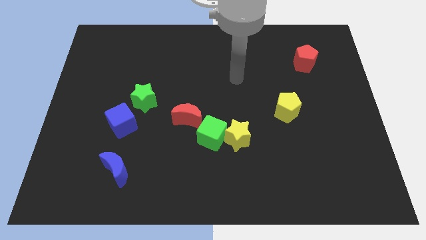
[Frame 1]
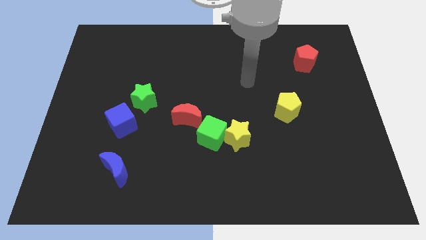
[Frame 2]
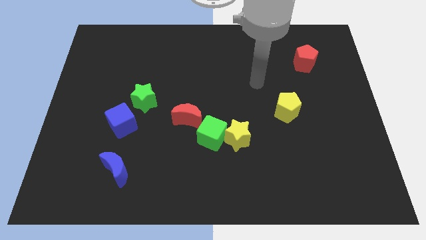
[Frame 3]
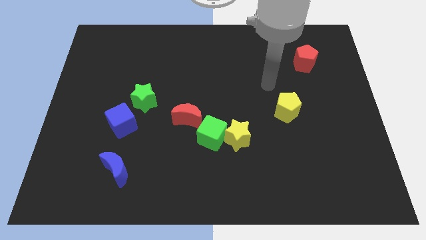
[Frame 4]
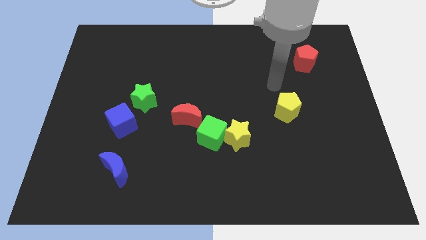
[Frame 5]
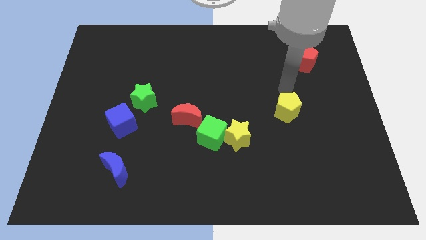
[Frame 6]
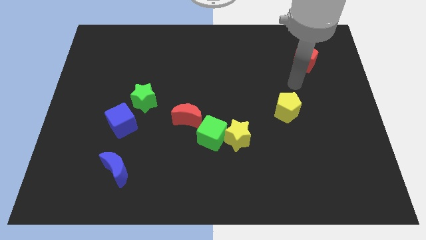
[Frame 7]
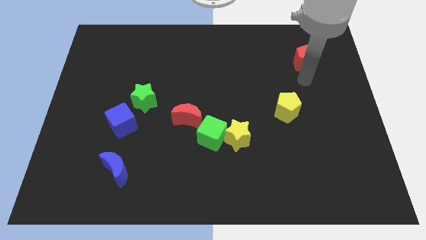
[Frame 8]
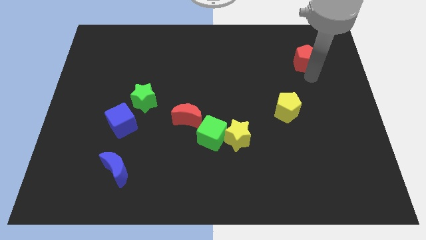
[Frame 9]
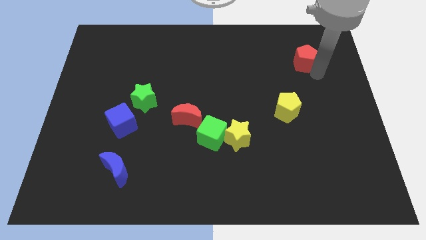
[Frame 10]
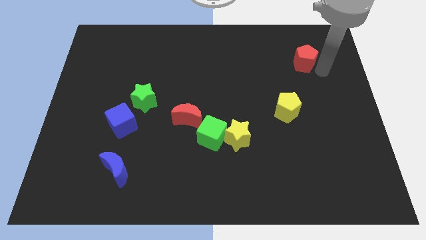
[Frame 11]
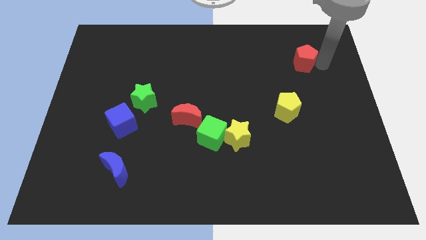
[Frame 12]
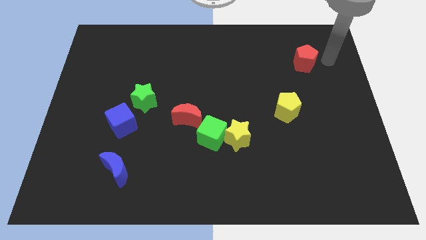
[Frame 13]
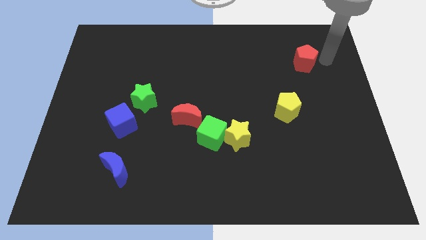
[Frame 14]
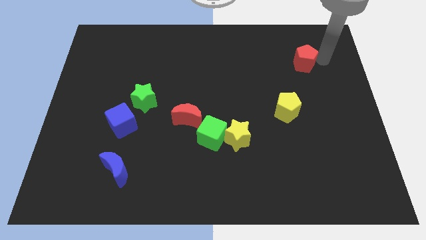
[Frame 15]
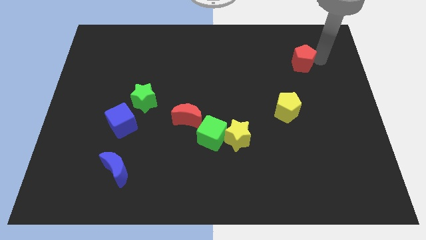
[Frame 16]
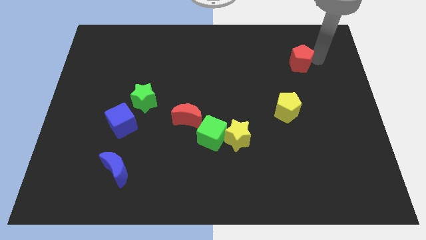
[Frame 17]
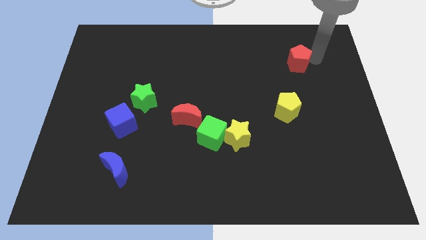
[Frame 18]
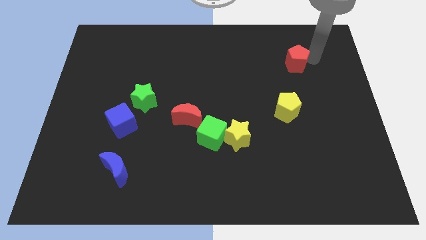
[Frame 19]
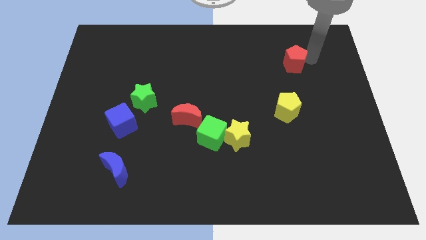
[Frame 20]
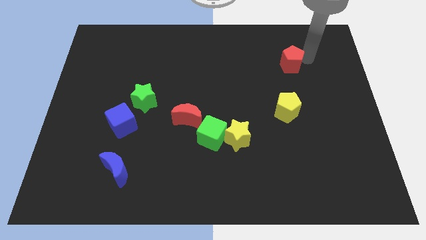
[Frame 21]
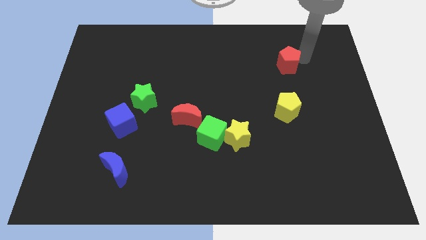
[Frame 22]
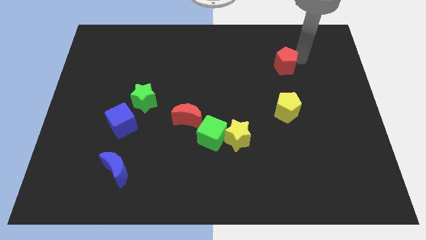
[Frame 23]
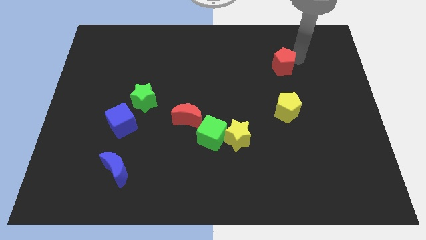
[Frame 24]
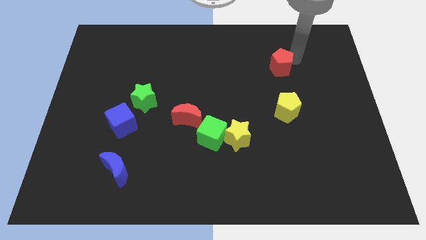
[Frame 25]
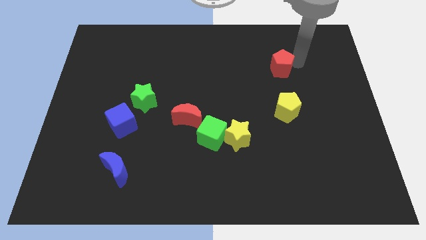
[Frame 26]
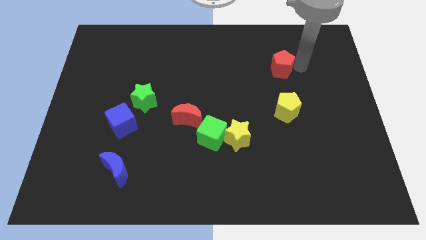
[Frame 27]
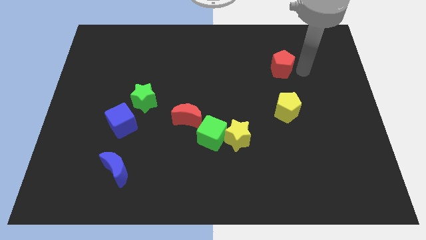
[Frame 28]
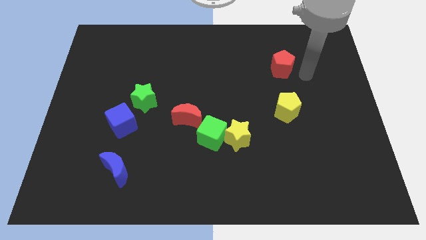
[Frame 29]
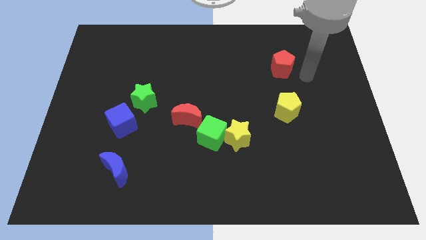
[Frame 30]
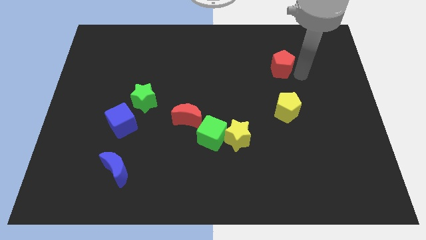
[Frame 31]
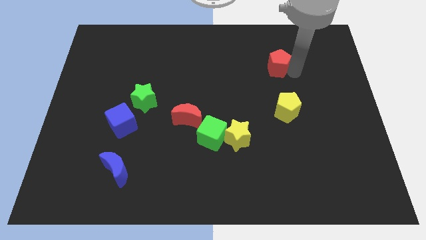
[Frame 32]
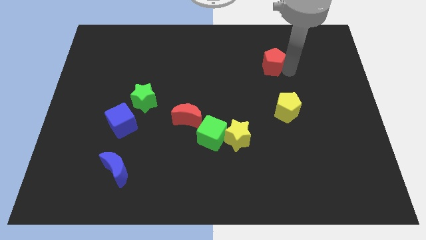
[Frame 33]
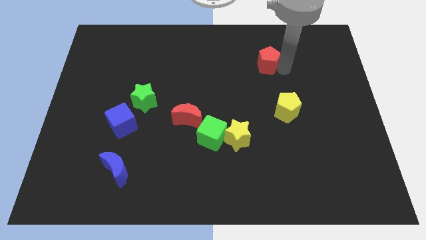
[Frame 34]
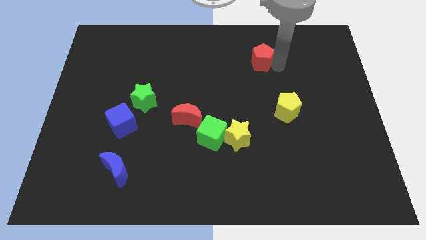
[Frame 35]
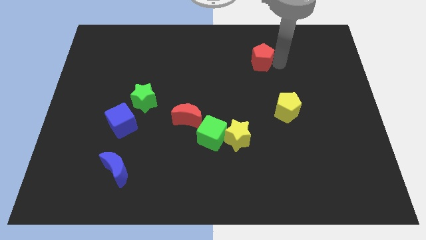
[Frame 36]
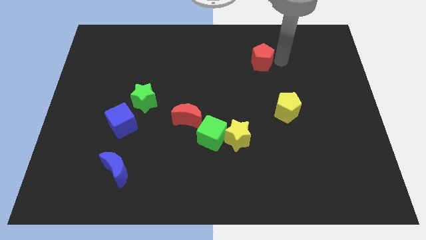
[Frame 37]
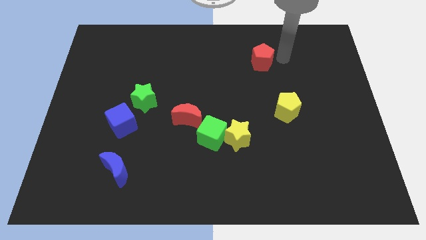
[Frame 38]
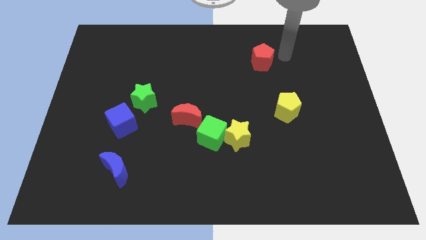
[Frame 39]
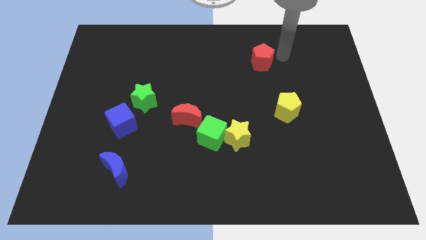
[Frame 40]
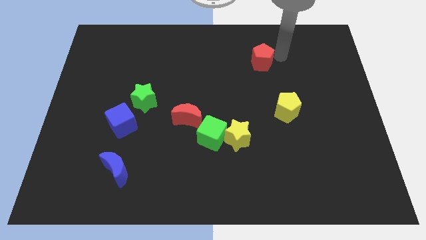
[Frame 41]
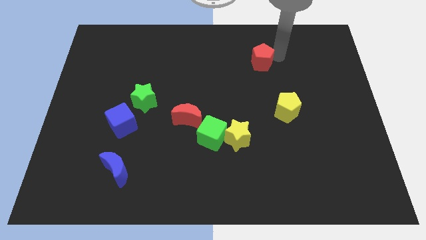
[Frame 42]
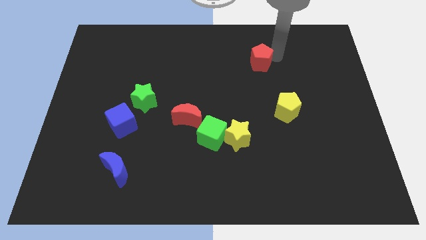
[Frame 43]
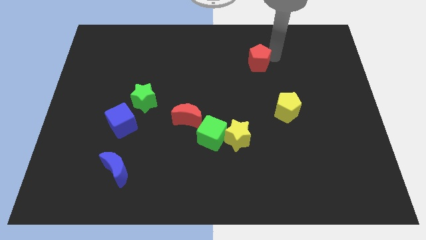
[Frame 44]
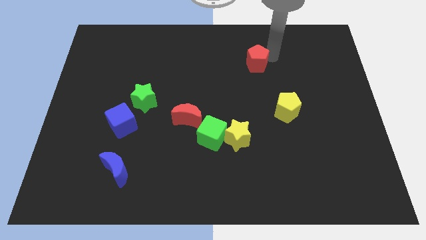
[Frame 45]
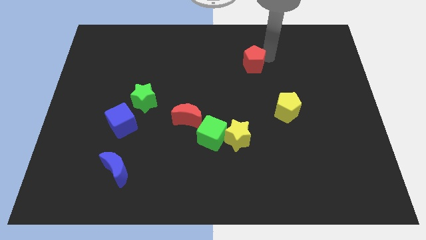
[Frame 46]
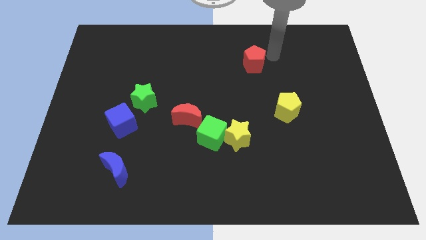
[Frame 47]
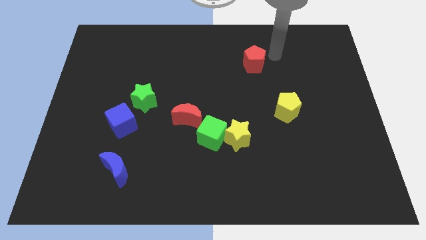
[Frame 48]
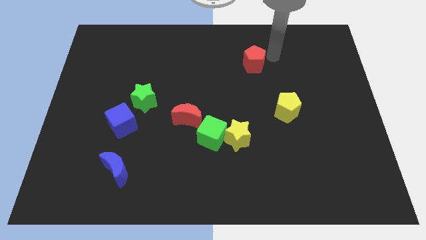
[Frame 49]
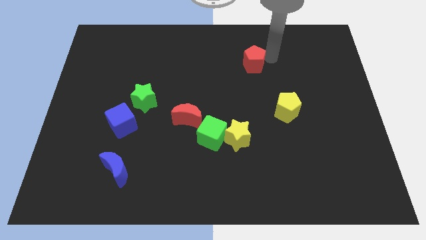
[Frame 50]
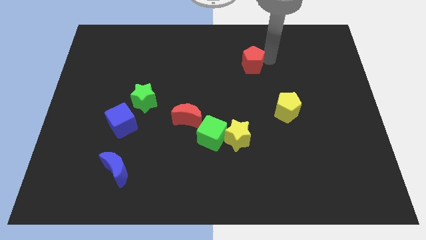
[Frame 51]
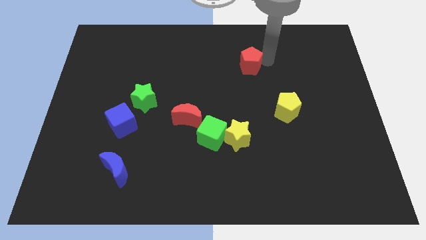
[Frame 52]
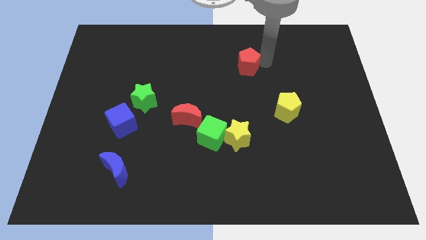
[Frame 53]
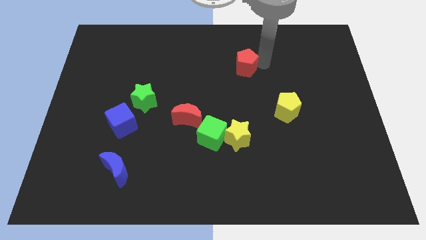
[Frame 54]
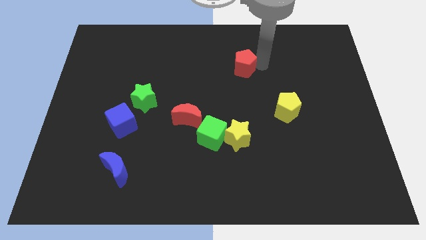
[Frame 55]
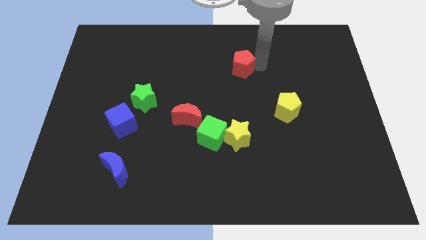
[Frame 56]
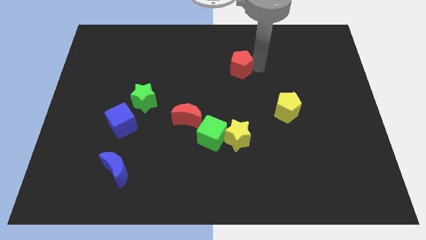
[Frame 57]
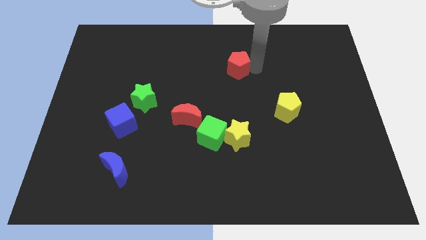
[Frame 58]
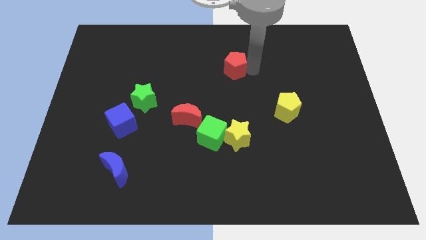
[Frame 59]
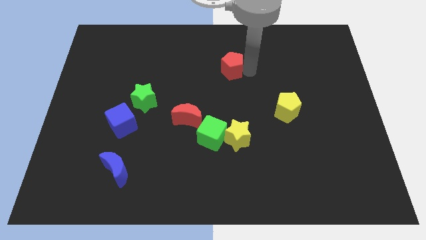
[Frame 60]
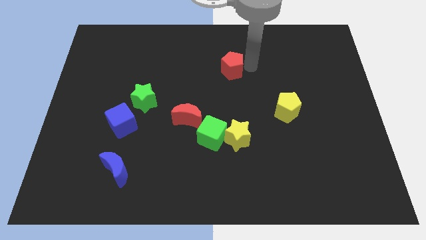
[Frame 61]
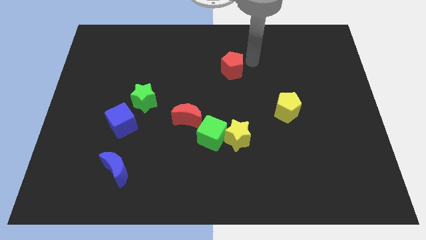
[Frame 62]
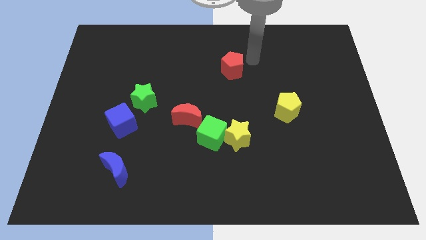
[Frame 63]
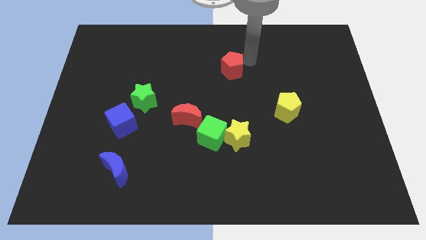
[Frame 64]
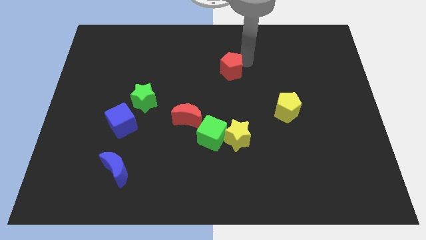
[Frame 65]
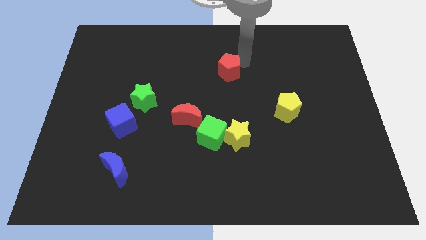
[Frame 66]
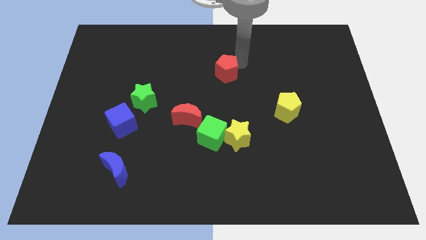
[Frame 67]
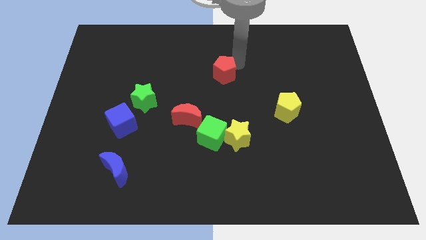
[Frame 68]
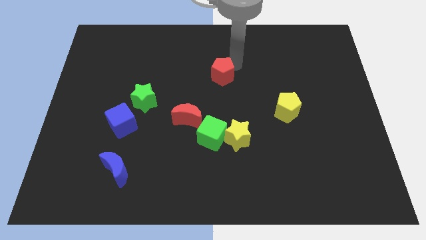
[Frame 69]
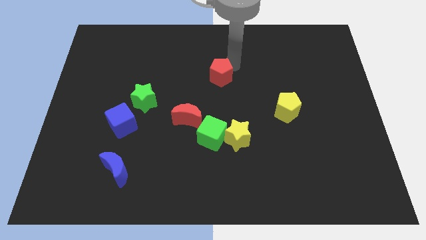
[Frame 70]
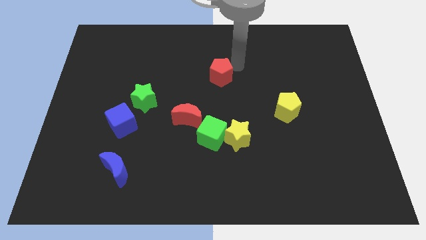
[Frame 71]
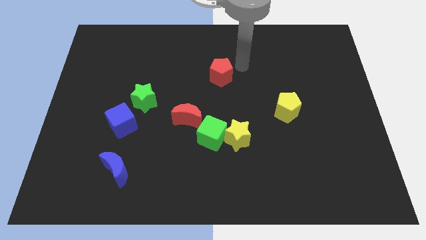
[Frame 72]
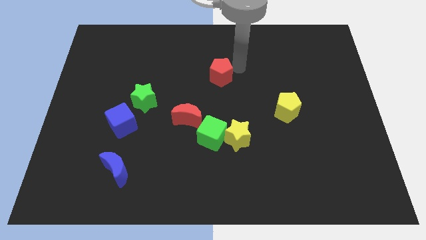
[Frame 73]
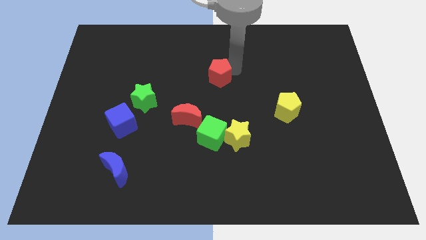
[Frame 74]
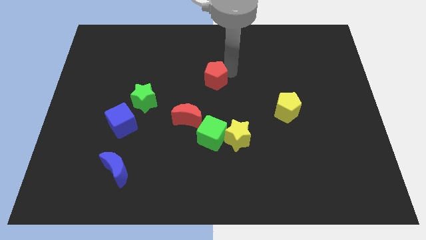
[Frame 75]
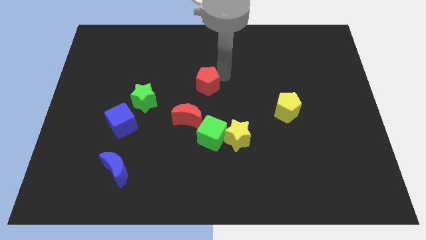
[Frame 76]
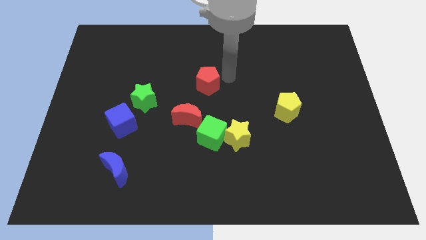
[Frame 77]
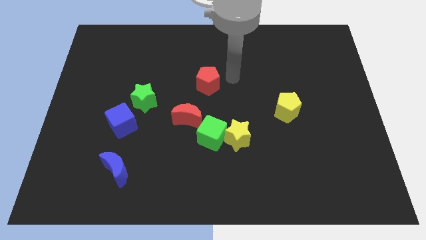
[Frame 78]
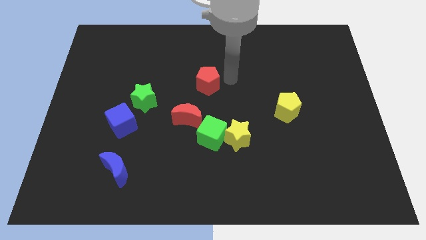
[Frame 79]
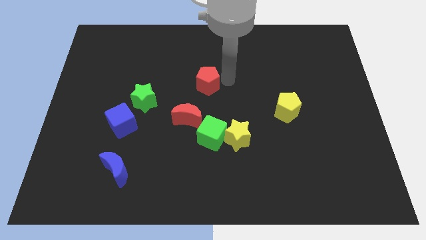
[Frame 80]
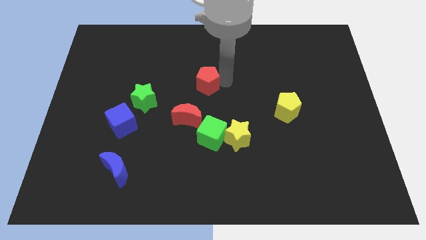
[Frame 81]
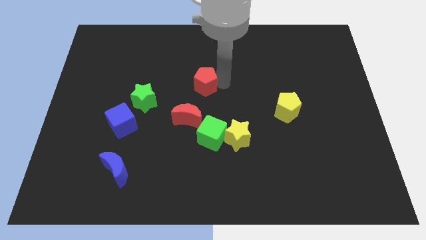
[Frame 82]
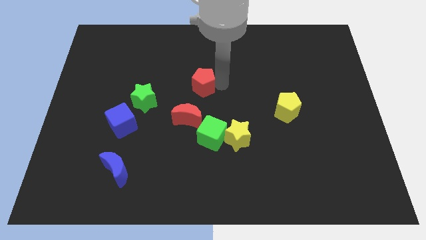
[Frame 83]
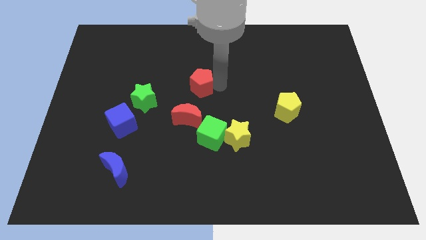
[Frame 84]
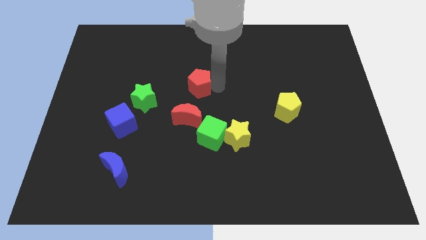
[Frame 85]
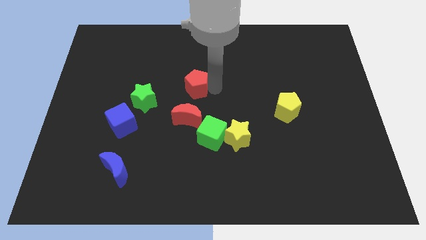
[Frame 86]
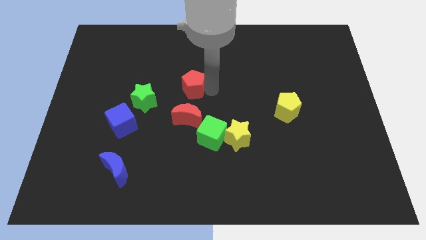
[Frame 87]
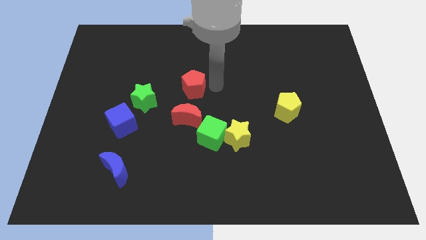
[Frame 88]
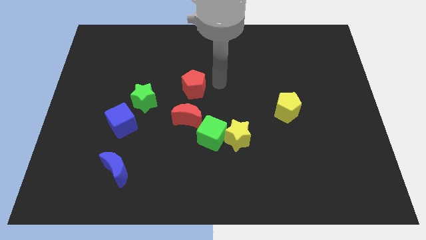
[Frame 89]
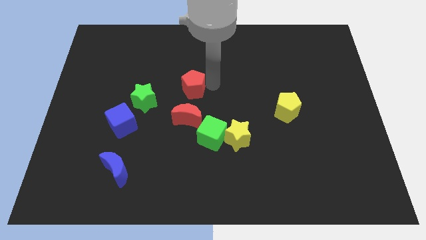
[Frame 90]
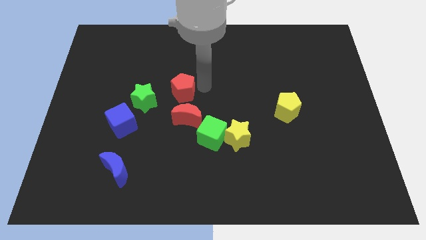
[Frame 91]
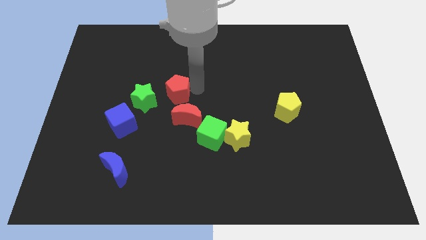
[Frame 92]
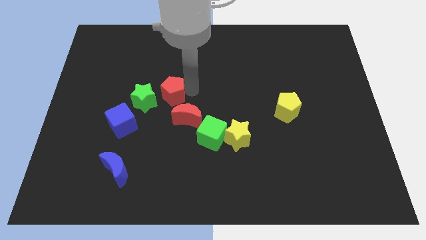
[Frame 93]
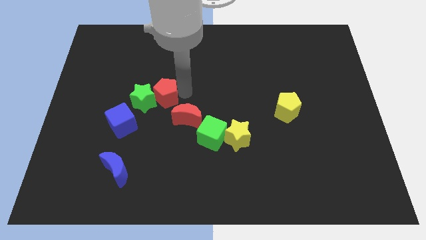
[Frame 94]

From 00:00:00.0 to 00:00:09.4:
push the red pentagon to the green star
